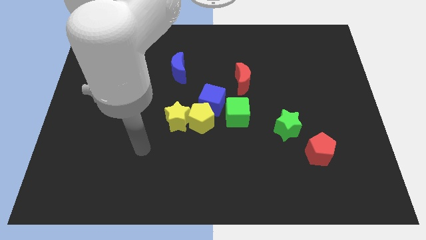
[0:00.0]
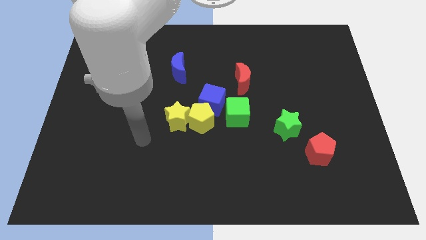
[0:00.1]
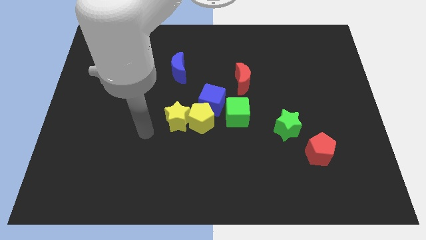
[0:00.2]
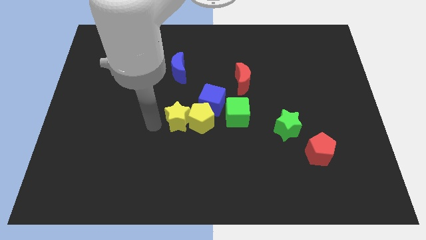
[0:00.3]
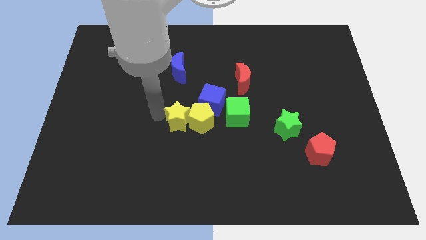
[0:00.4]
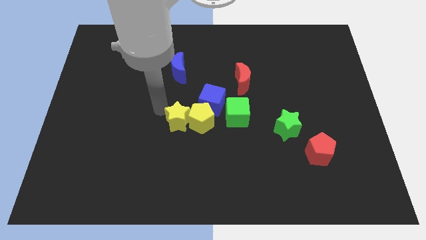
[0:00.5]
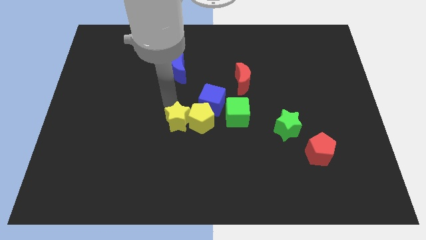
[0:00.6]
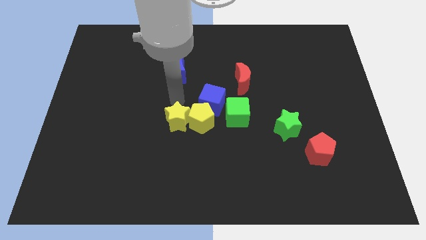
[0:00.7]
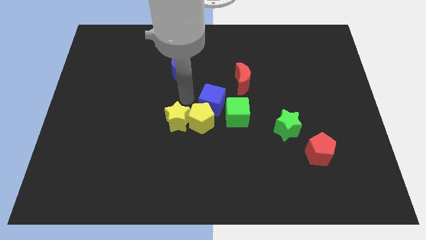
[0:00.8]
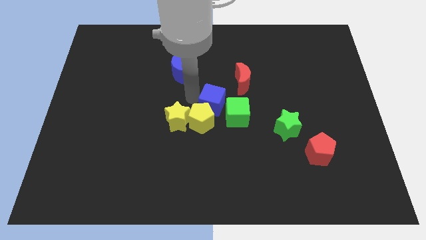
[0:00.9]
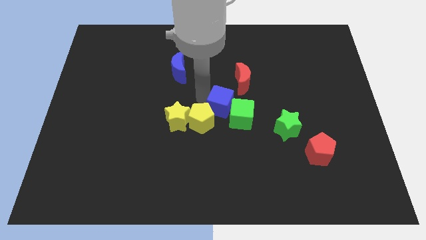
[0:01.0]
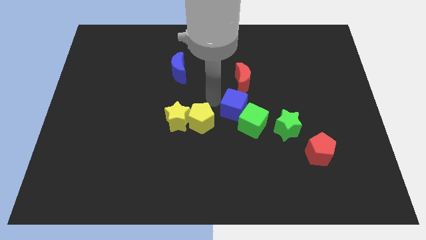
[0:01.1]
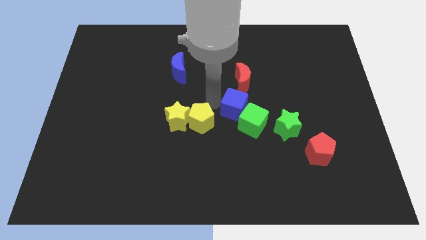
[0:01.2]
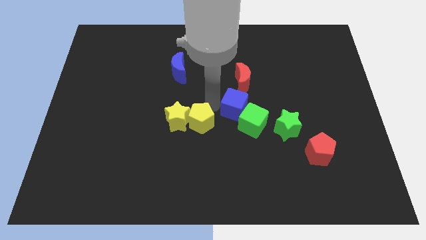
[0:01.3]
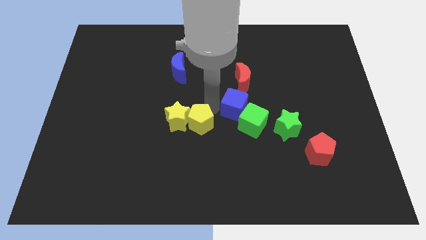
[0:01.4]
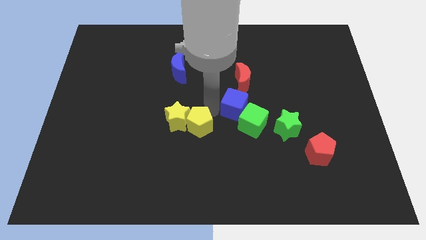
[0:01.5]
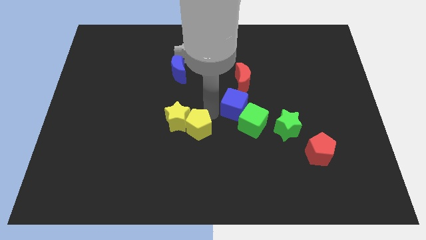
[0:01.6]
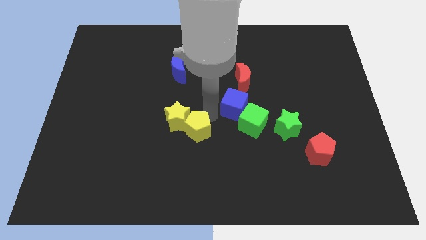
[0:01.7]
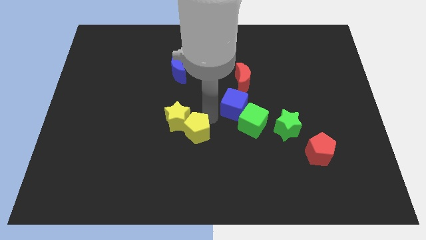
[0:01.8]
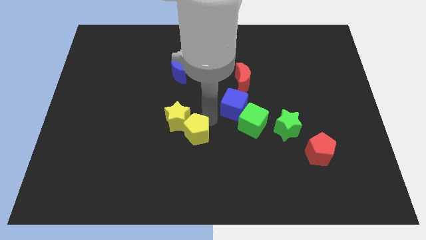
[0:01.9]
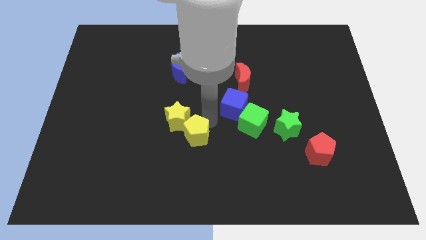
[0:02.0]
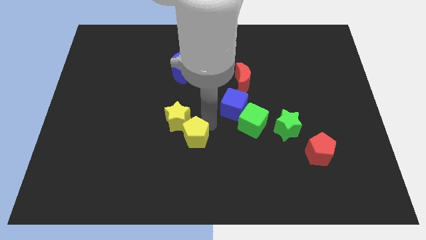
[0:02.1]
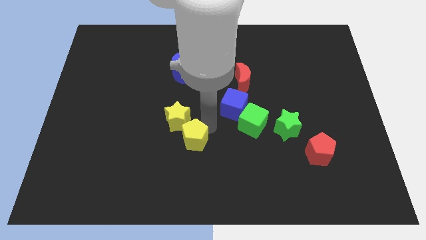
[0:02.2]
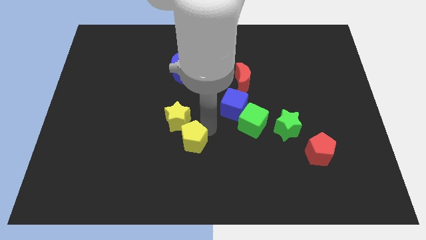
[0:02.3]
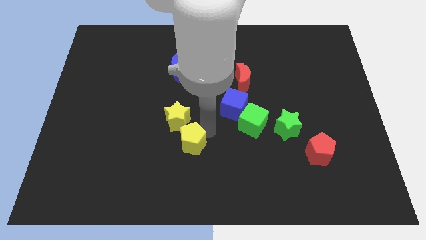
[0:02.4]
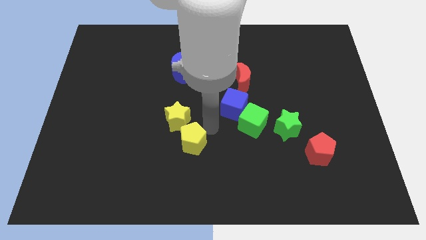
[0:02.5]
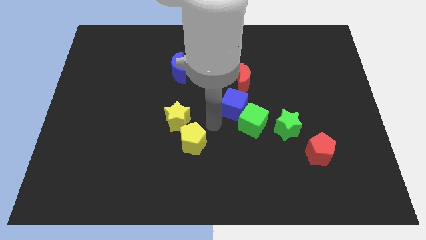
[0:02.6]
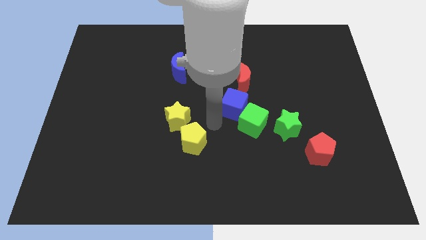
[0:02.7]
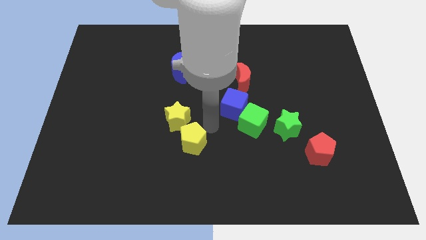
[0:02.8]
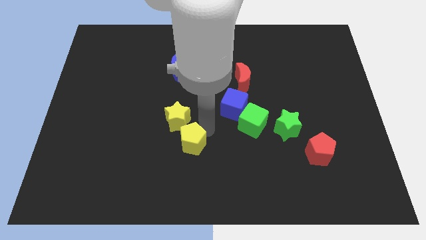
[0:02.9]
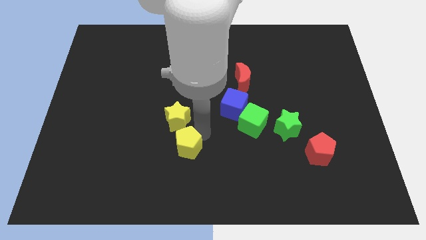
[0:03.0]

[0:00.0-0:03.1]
pull the yellow pentagon apart from the yellow star, blue cube, and green cube

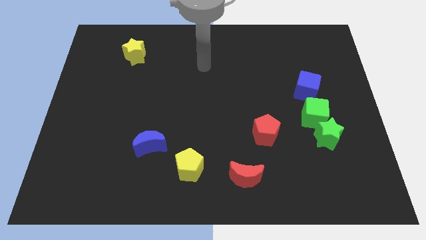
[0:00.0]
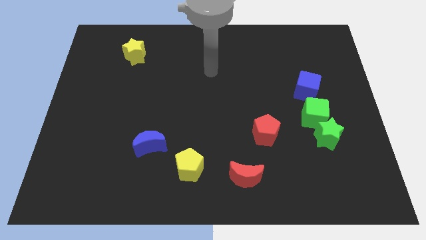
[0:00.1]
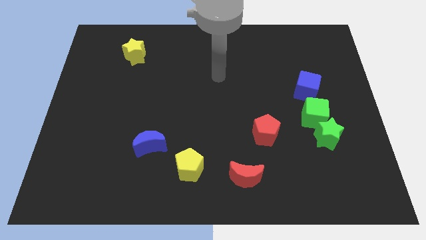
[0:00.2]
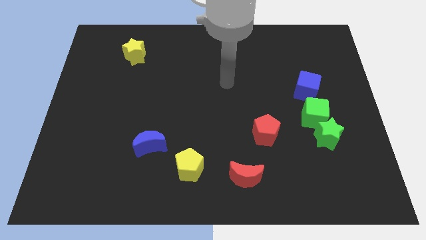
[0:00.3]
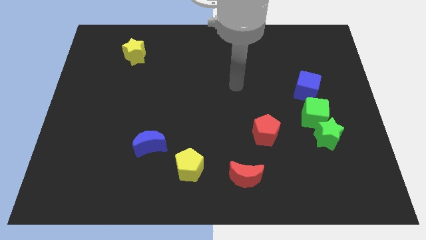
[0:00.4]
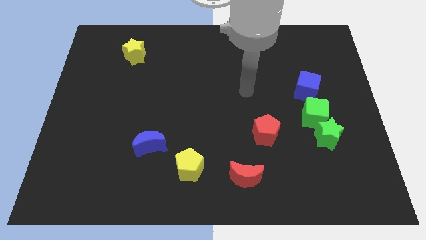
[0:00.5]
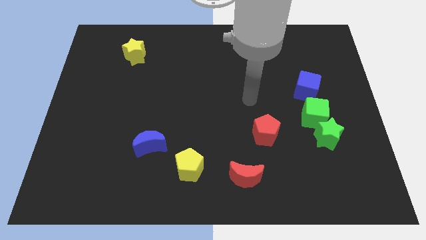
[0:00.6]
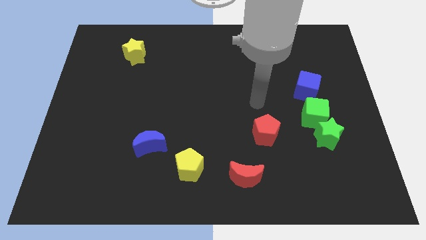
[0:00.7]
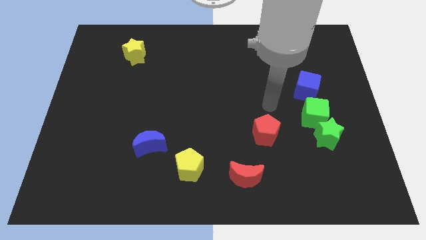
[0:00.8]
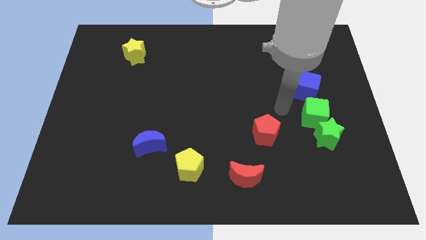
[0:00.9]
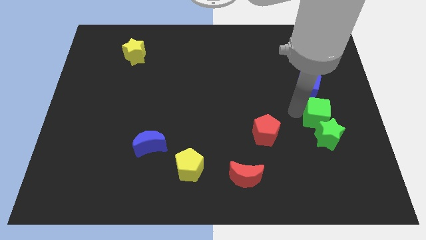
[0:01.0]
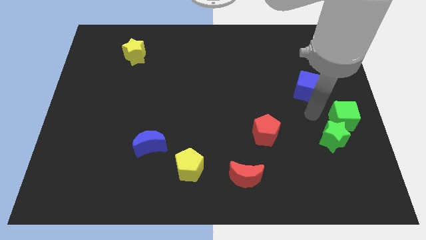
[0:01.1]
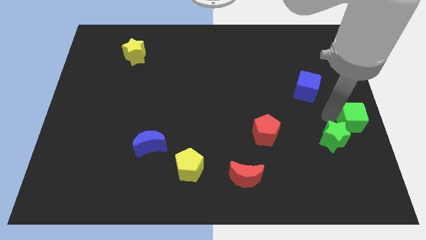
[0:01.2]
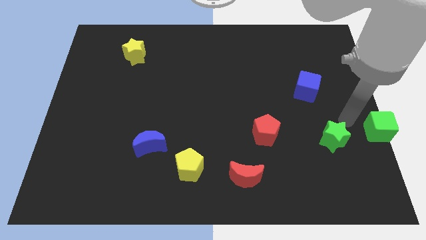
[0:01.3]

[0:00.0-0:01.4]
pull the green star apart from the green cube

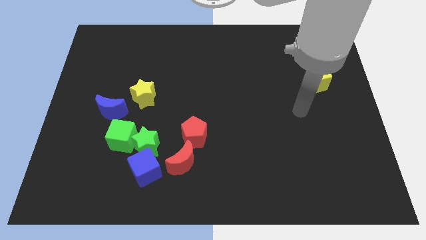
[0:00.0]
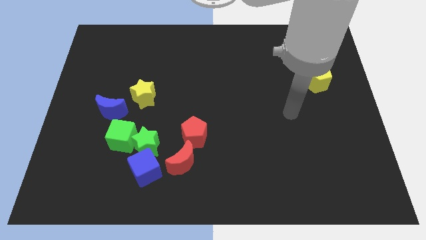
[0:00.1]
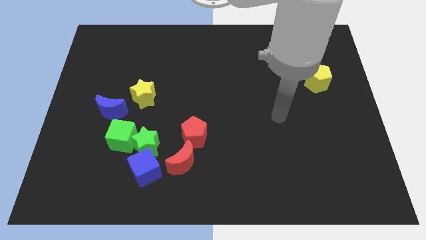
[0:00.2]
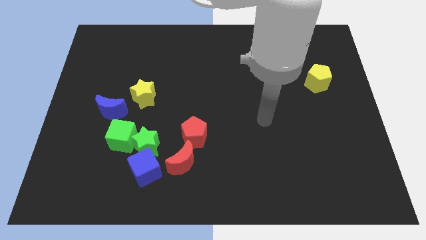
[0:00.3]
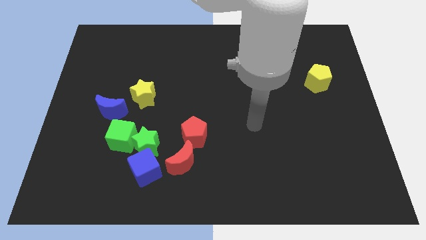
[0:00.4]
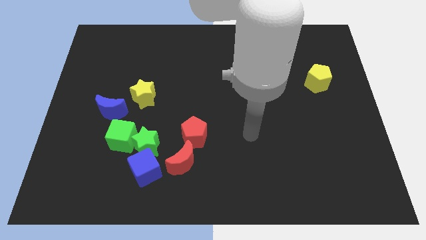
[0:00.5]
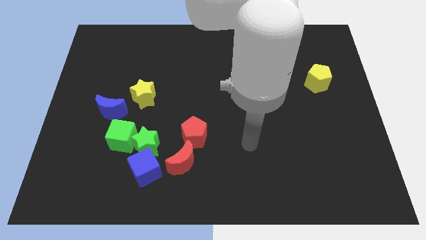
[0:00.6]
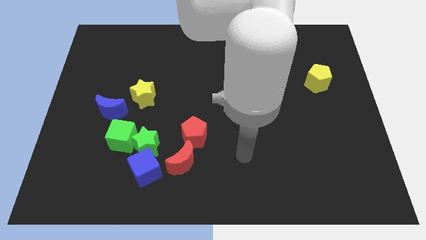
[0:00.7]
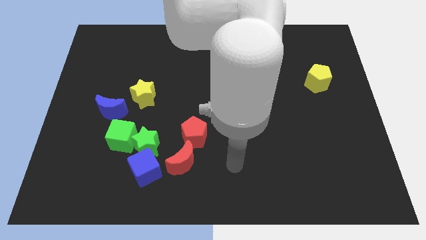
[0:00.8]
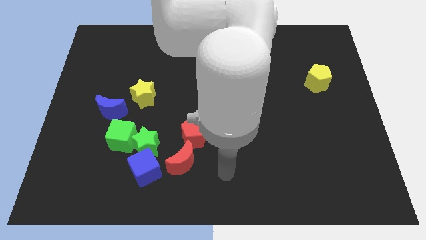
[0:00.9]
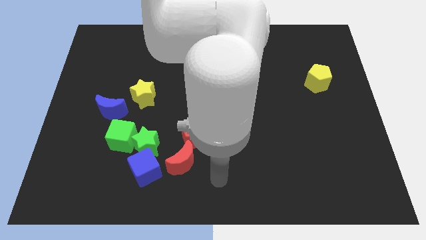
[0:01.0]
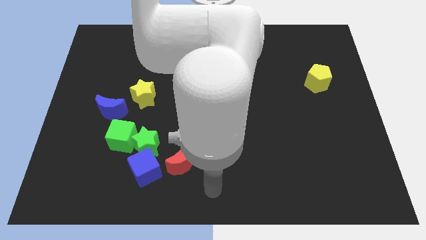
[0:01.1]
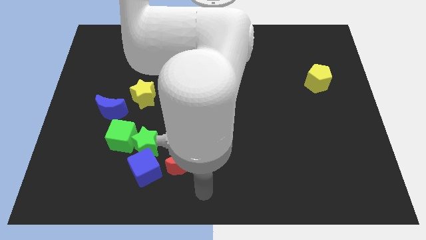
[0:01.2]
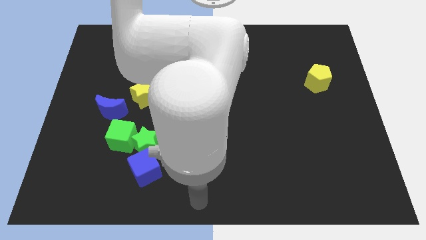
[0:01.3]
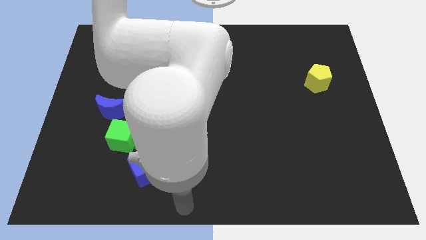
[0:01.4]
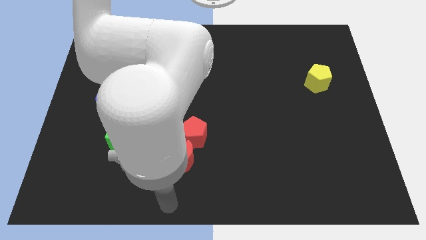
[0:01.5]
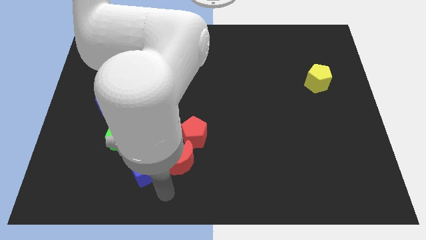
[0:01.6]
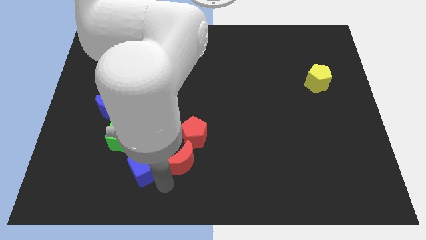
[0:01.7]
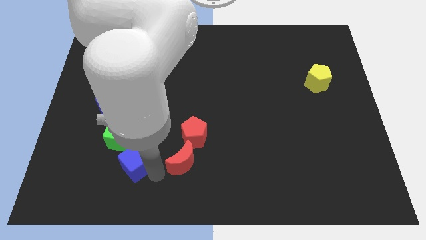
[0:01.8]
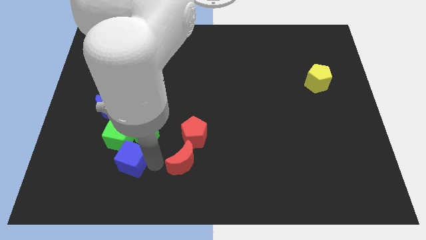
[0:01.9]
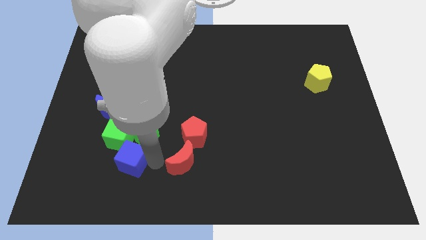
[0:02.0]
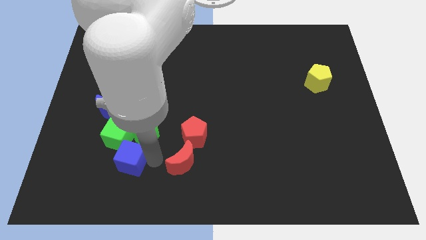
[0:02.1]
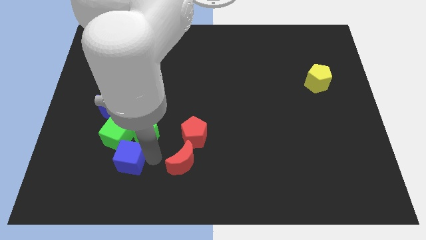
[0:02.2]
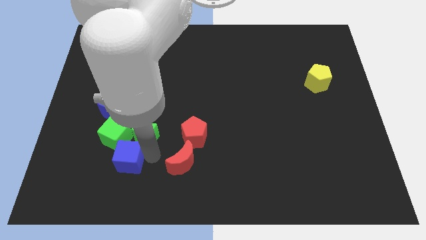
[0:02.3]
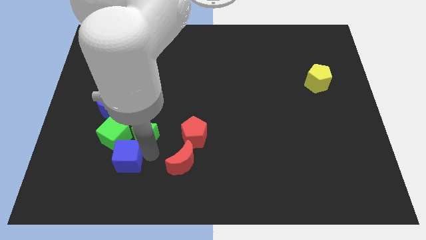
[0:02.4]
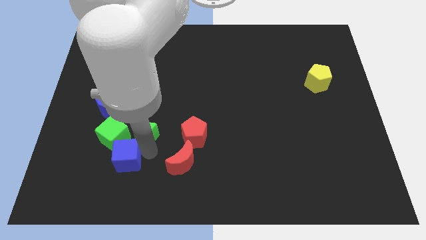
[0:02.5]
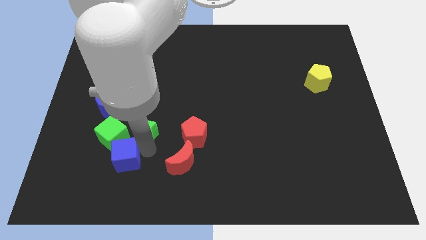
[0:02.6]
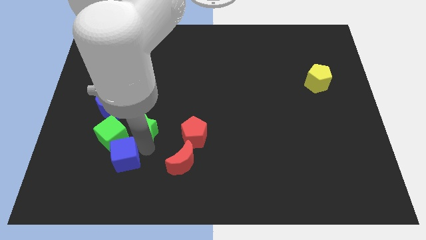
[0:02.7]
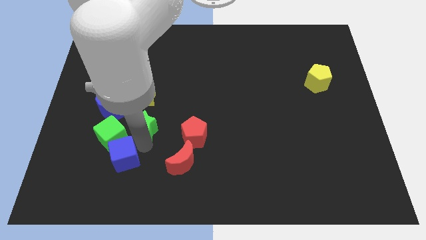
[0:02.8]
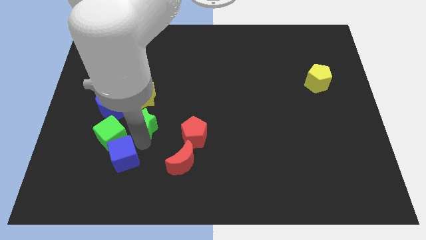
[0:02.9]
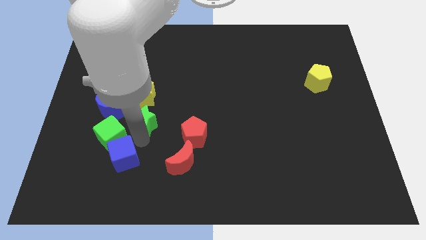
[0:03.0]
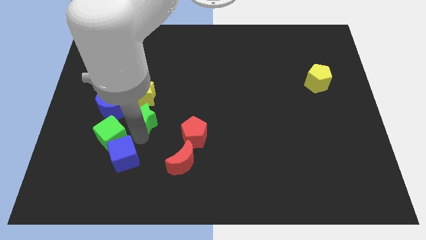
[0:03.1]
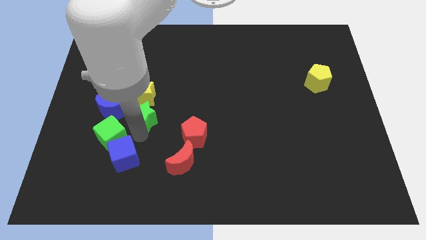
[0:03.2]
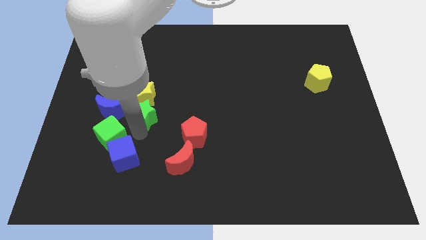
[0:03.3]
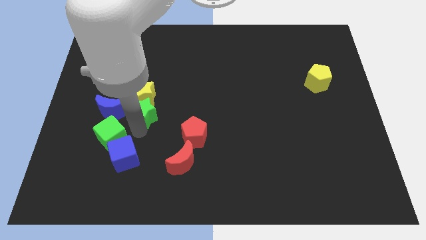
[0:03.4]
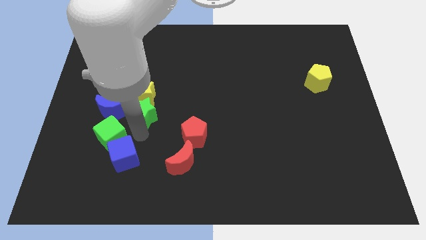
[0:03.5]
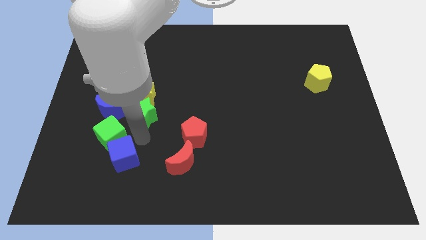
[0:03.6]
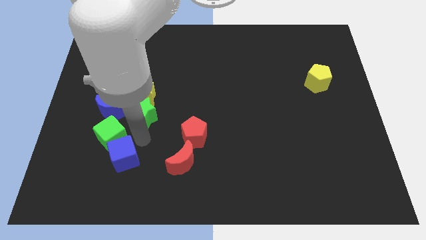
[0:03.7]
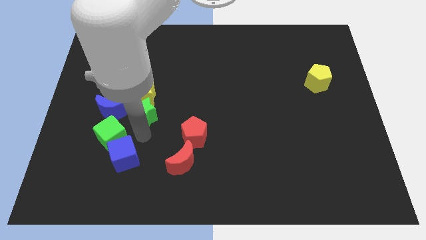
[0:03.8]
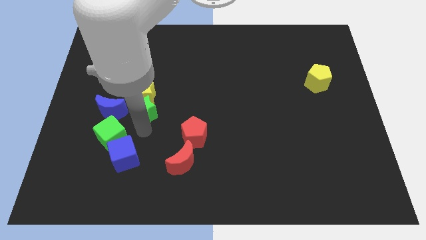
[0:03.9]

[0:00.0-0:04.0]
pull the green star apart from the group of blocks

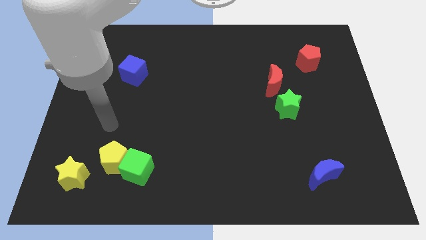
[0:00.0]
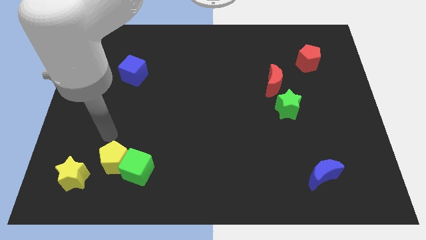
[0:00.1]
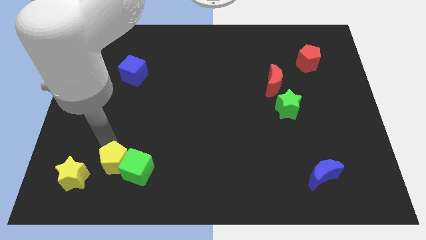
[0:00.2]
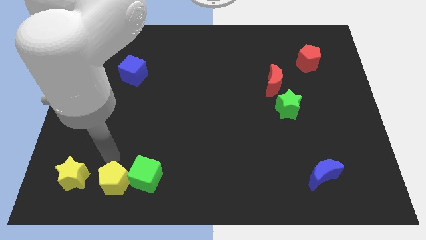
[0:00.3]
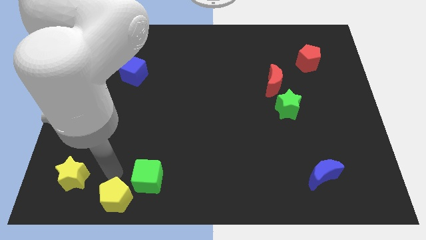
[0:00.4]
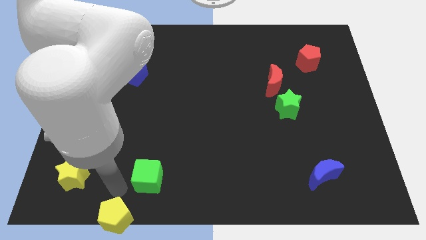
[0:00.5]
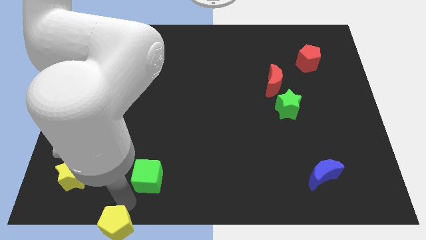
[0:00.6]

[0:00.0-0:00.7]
move the green cube away from the yellow pentagon

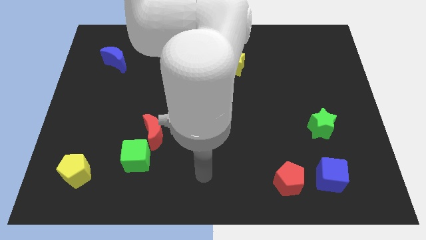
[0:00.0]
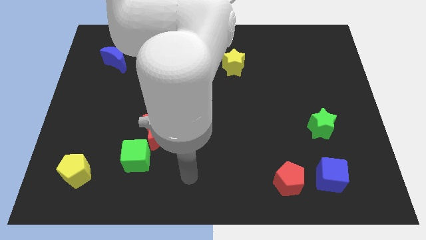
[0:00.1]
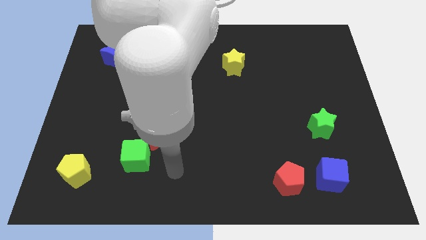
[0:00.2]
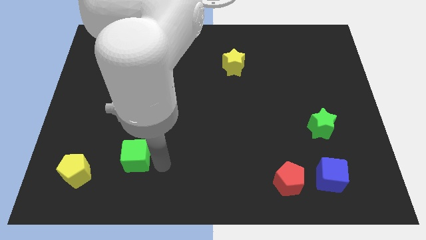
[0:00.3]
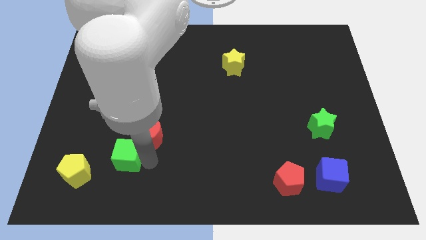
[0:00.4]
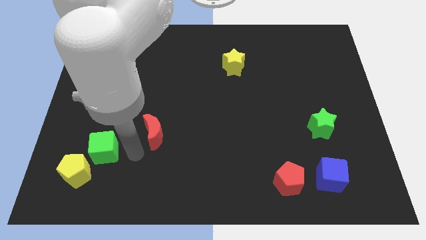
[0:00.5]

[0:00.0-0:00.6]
pull the red moon apart from the green cube
